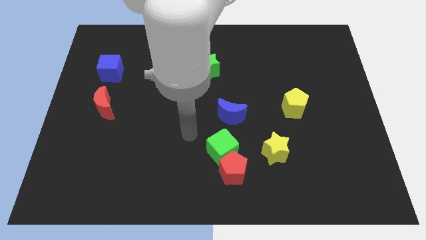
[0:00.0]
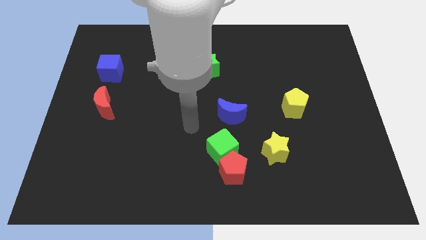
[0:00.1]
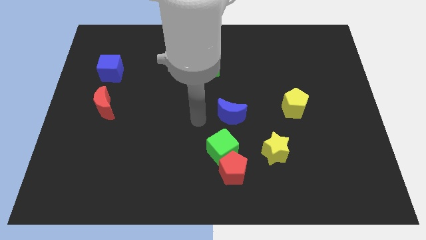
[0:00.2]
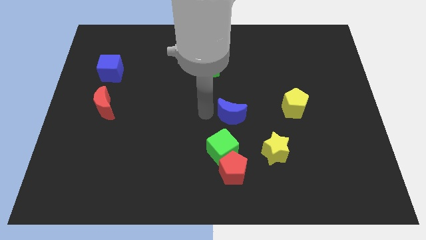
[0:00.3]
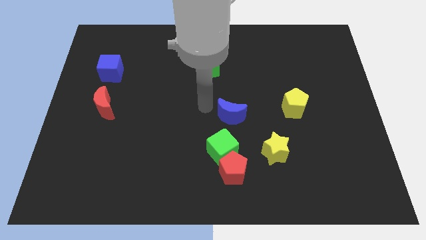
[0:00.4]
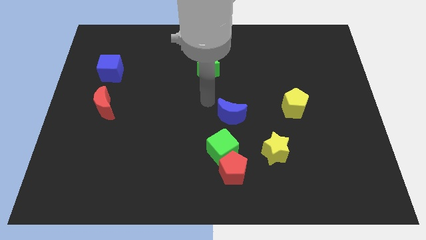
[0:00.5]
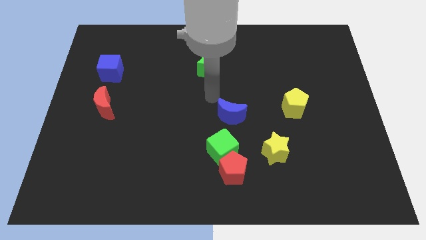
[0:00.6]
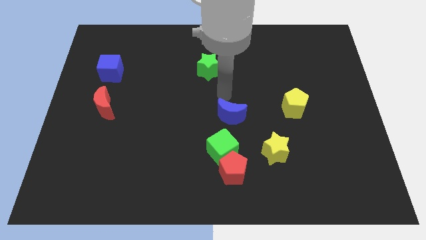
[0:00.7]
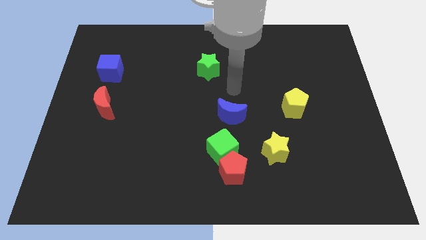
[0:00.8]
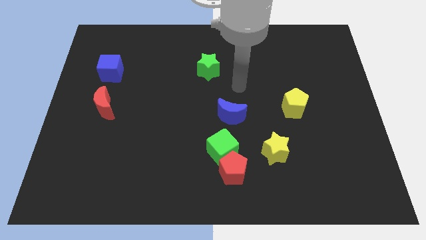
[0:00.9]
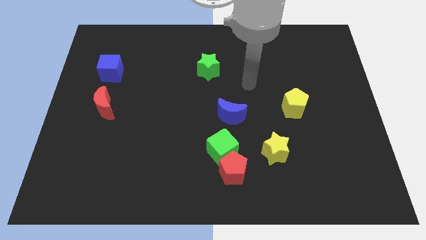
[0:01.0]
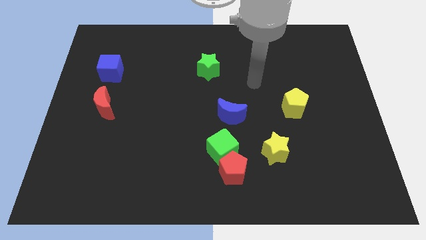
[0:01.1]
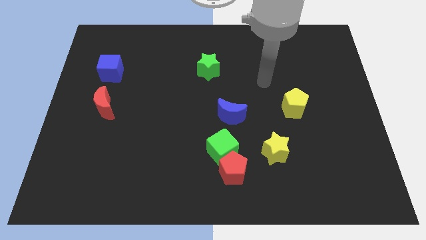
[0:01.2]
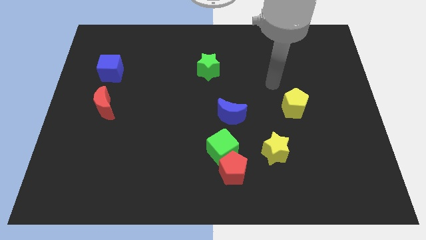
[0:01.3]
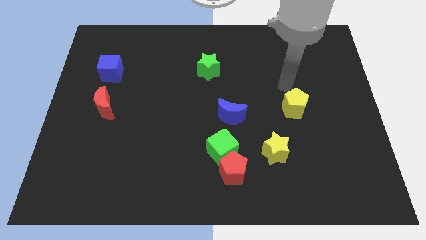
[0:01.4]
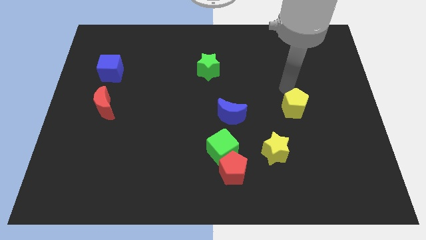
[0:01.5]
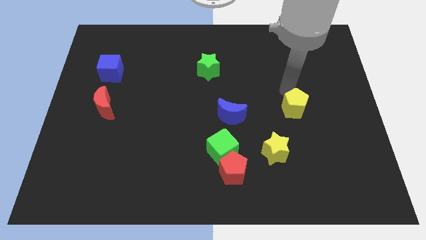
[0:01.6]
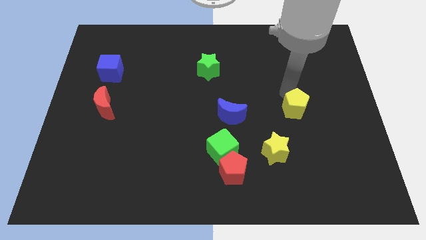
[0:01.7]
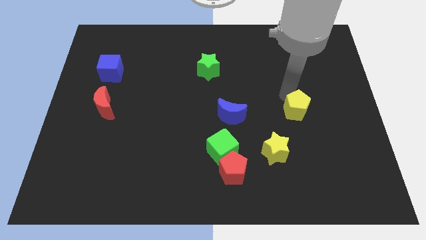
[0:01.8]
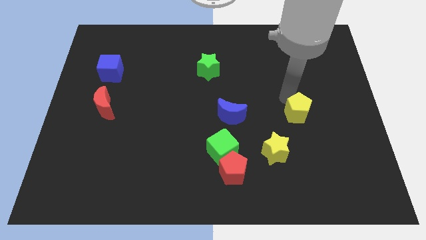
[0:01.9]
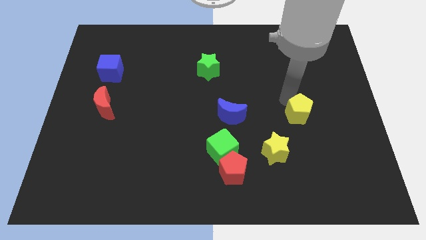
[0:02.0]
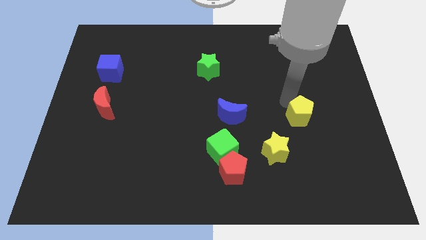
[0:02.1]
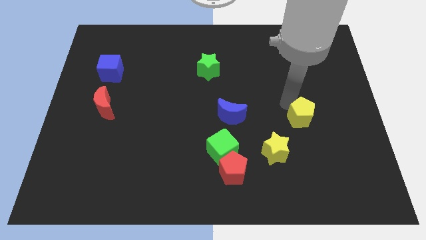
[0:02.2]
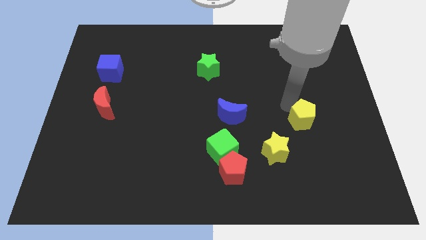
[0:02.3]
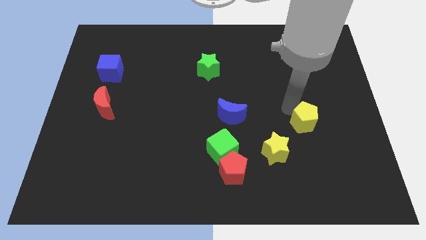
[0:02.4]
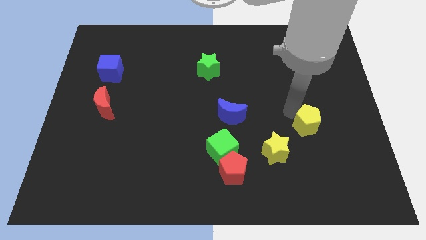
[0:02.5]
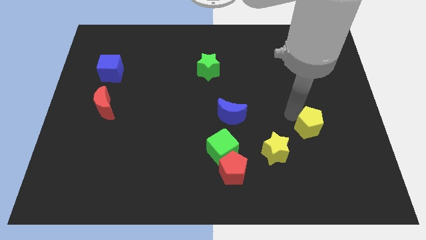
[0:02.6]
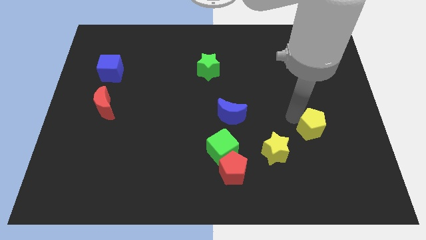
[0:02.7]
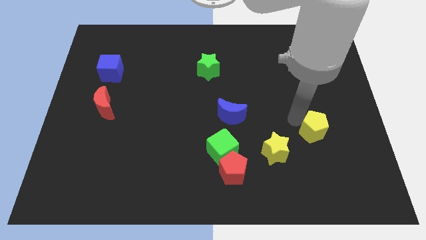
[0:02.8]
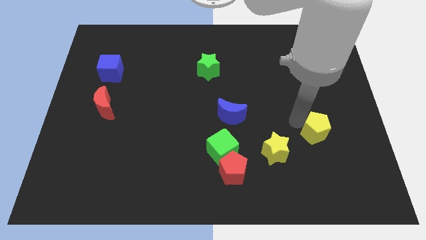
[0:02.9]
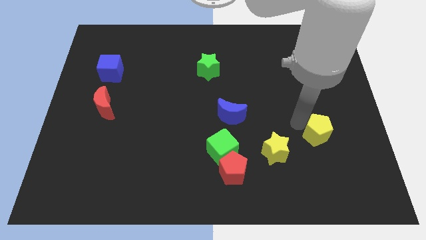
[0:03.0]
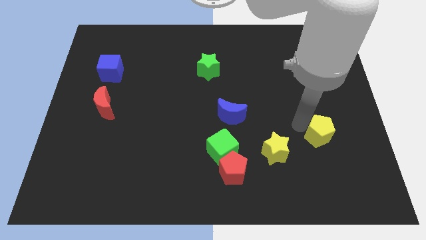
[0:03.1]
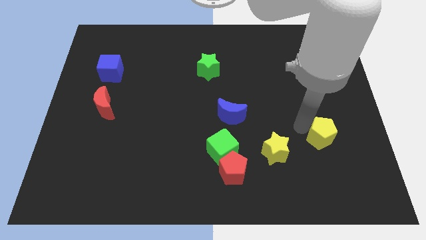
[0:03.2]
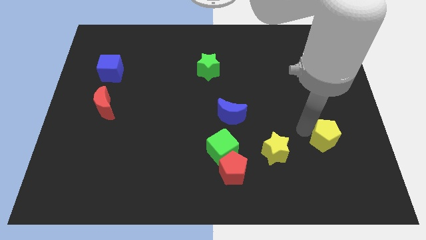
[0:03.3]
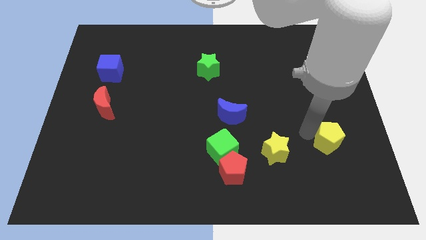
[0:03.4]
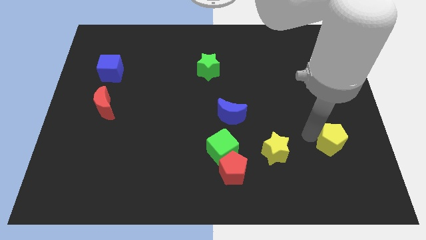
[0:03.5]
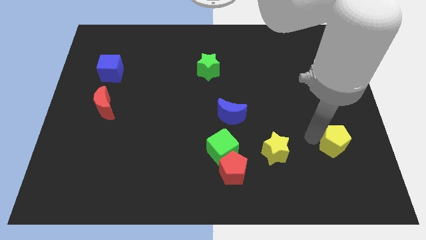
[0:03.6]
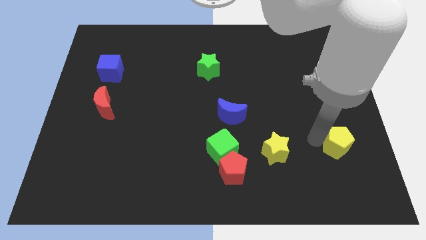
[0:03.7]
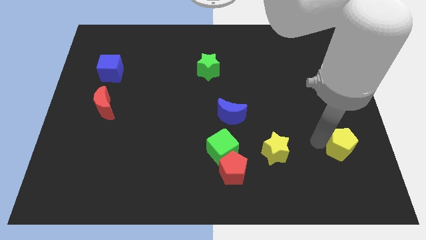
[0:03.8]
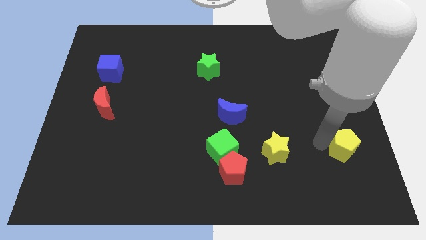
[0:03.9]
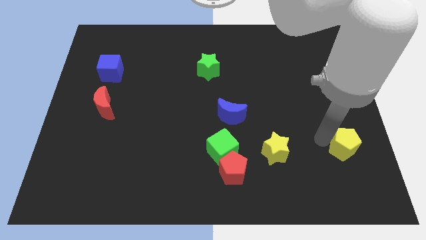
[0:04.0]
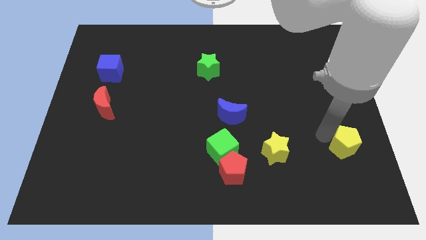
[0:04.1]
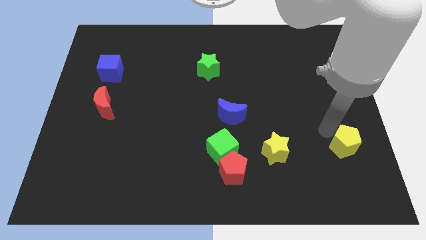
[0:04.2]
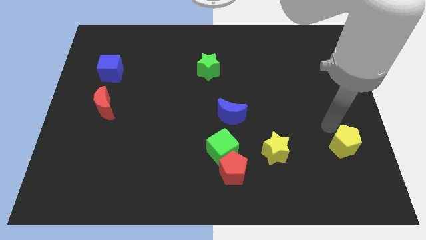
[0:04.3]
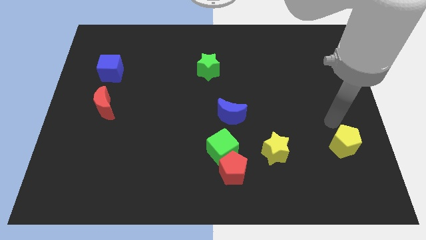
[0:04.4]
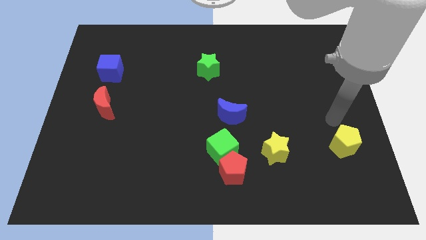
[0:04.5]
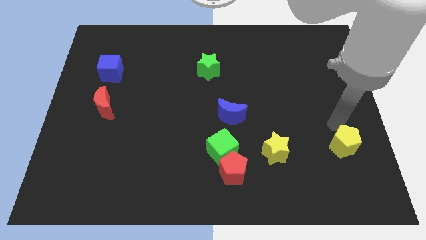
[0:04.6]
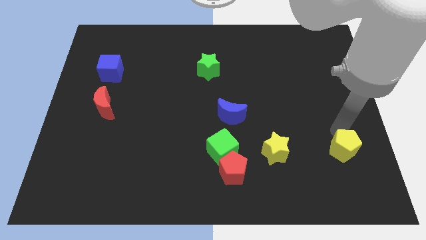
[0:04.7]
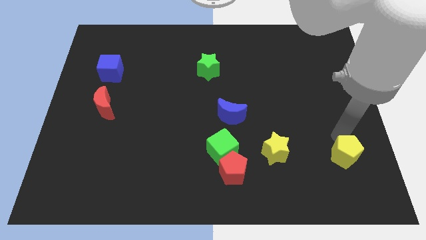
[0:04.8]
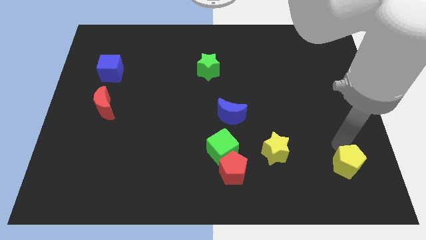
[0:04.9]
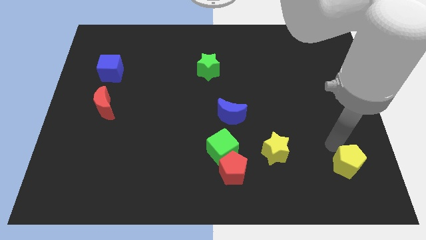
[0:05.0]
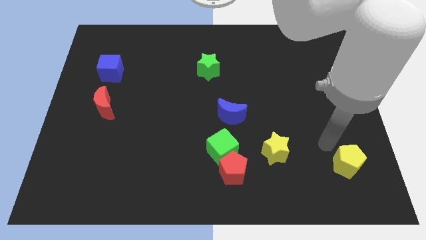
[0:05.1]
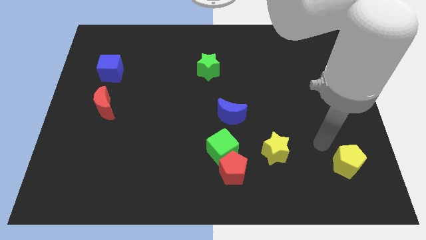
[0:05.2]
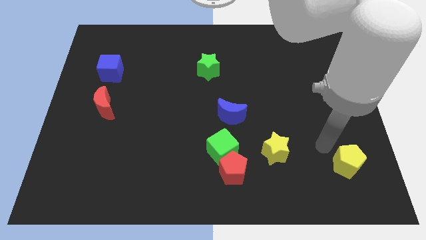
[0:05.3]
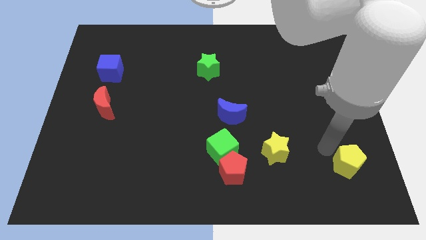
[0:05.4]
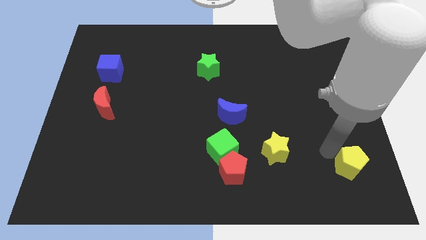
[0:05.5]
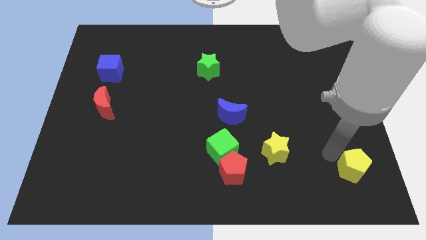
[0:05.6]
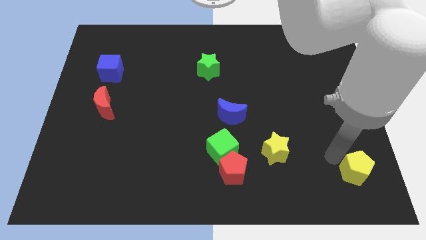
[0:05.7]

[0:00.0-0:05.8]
push the yellow pentagon to the bottom right

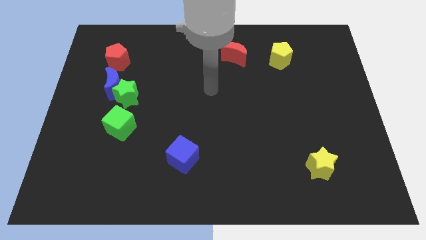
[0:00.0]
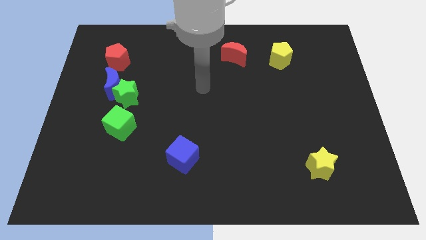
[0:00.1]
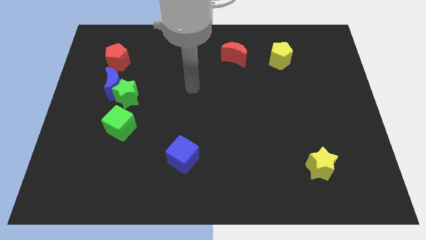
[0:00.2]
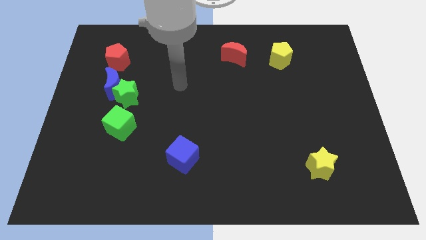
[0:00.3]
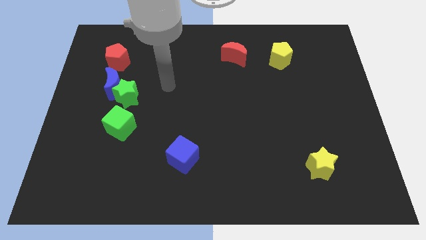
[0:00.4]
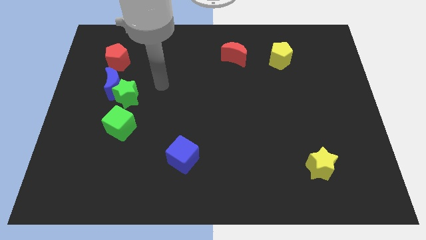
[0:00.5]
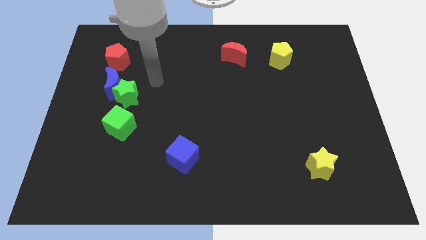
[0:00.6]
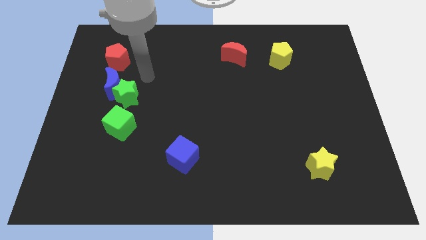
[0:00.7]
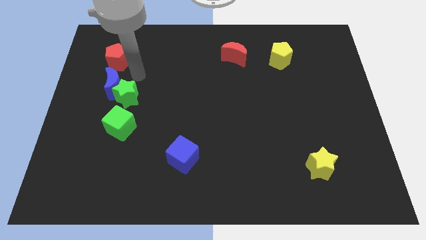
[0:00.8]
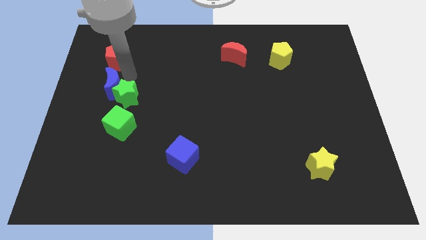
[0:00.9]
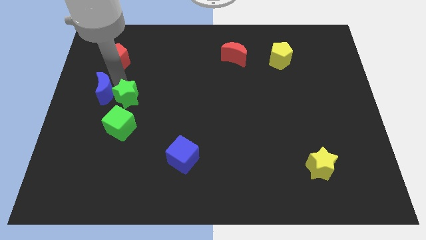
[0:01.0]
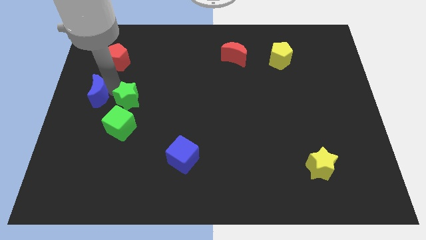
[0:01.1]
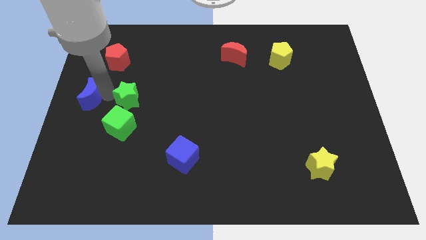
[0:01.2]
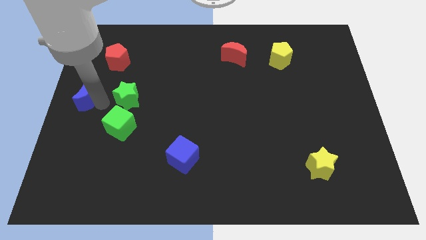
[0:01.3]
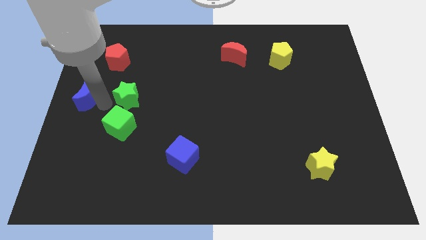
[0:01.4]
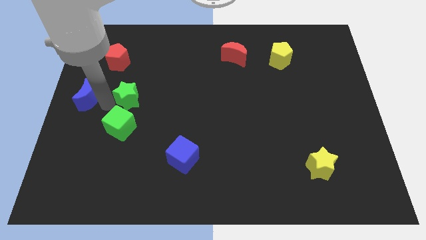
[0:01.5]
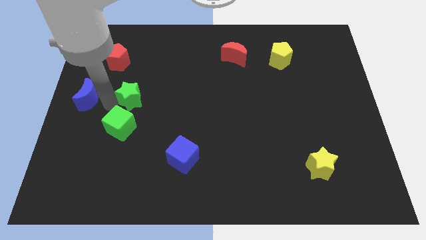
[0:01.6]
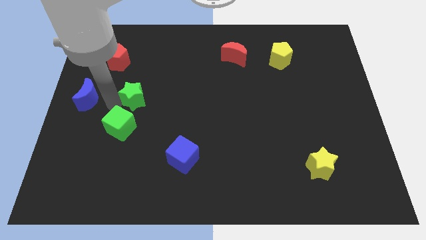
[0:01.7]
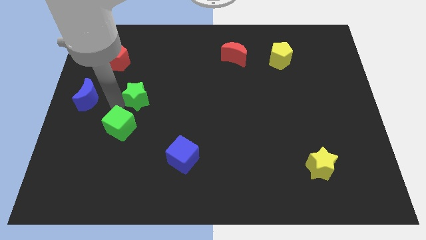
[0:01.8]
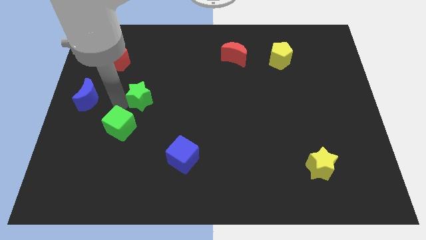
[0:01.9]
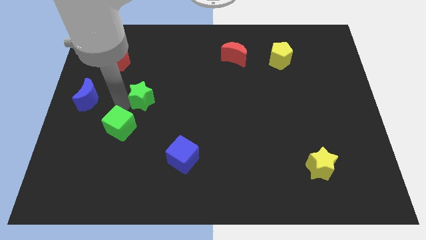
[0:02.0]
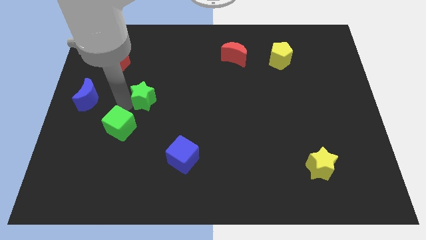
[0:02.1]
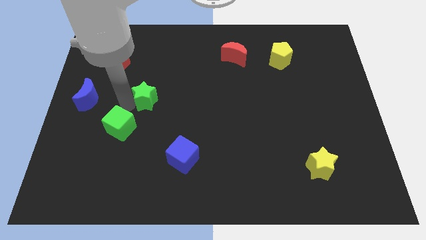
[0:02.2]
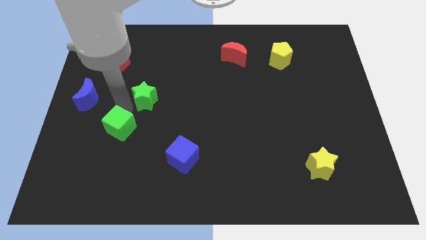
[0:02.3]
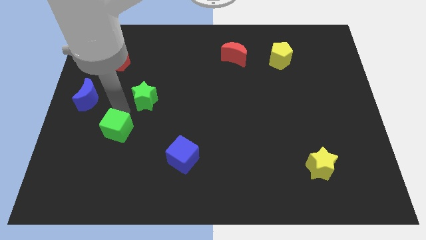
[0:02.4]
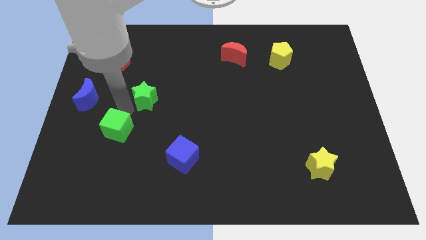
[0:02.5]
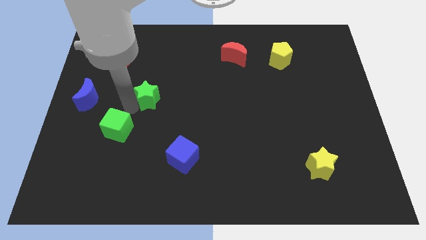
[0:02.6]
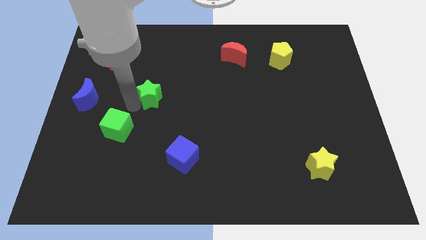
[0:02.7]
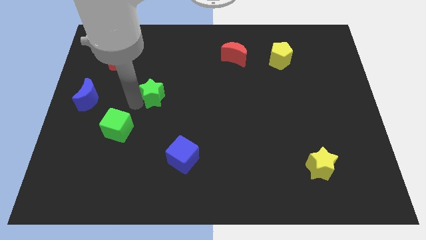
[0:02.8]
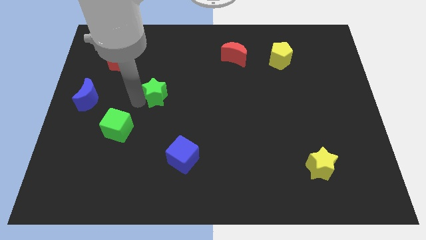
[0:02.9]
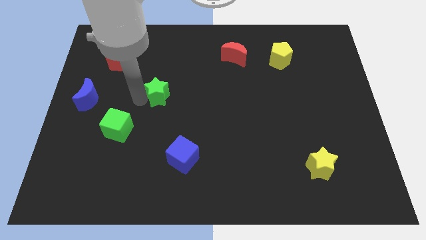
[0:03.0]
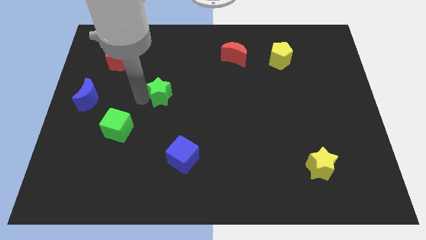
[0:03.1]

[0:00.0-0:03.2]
push the green star to the middle of the board
